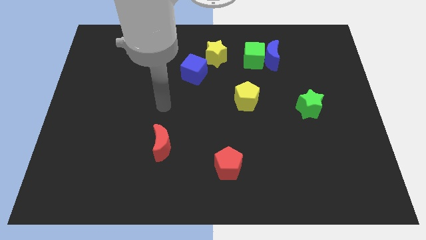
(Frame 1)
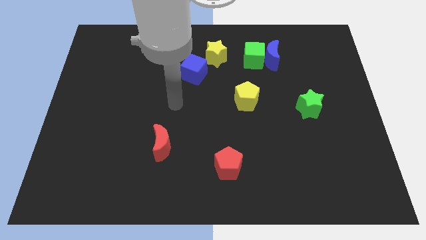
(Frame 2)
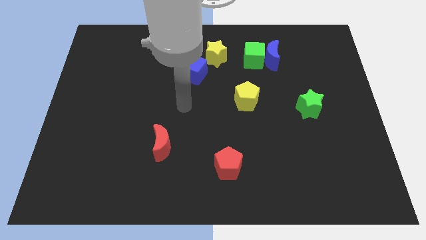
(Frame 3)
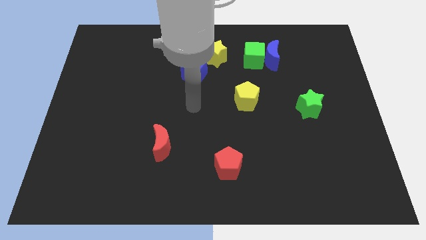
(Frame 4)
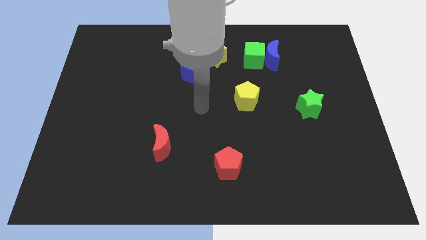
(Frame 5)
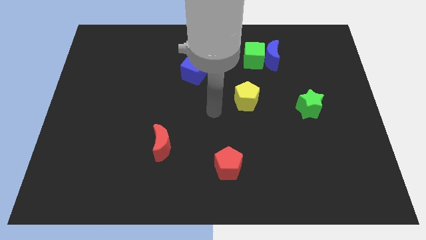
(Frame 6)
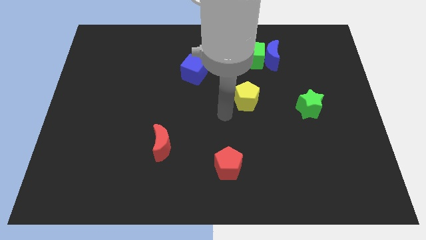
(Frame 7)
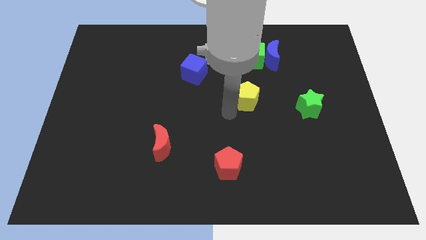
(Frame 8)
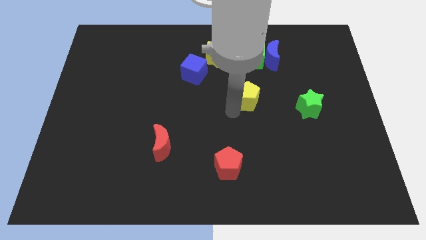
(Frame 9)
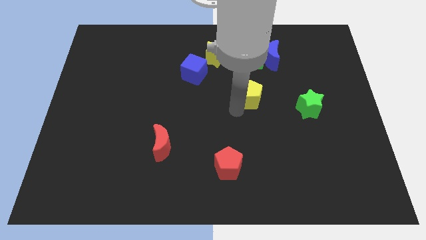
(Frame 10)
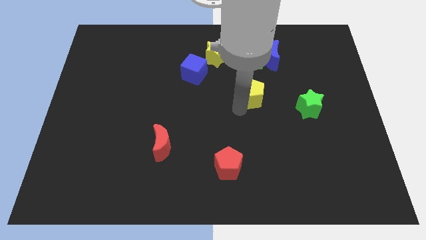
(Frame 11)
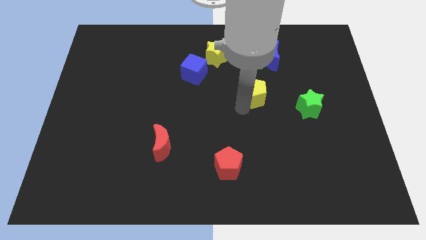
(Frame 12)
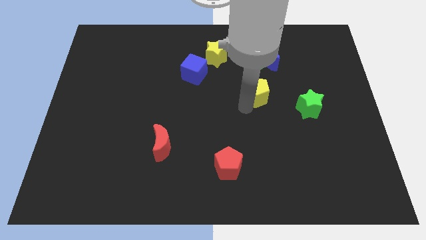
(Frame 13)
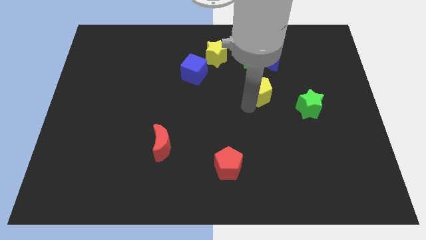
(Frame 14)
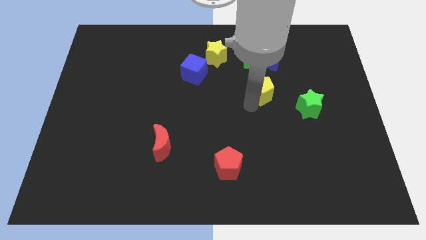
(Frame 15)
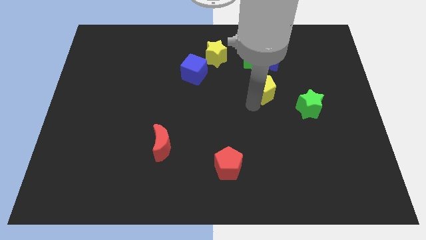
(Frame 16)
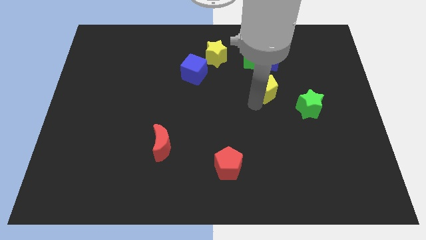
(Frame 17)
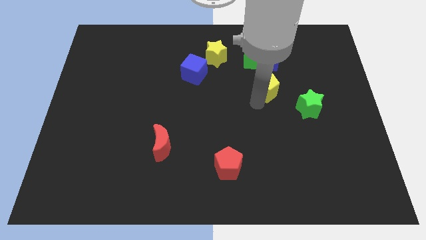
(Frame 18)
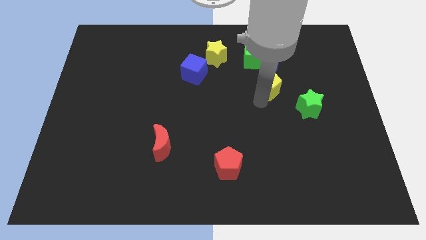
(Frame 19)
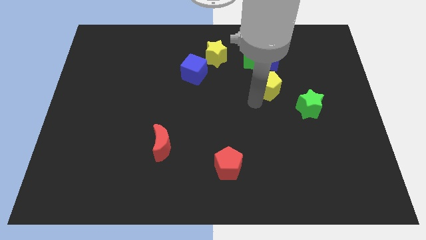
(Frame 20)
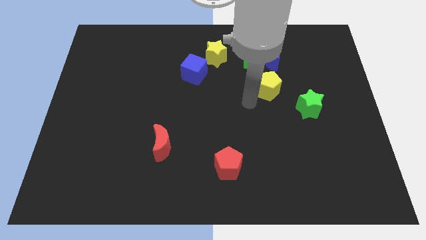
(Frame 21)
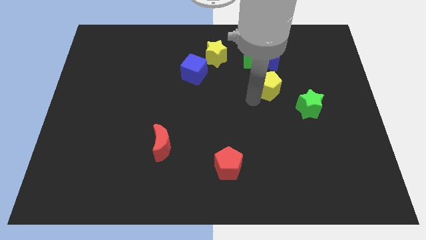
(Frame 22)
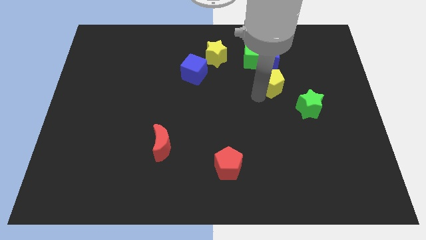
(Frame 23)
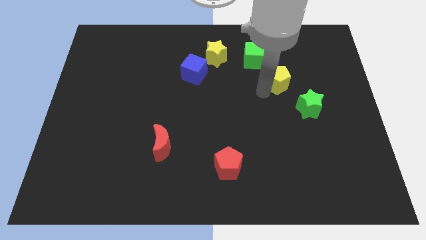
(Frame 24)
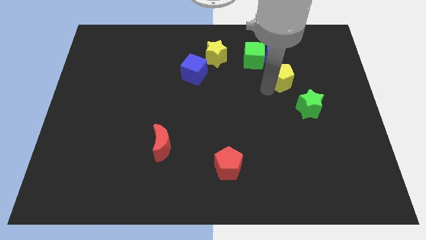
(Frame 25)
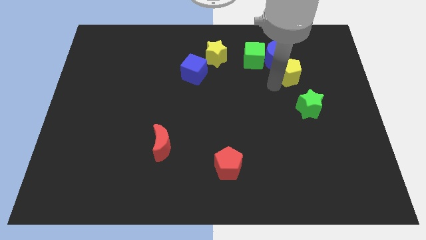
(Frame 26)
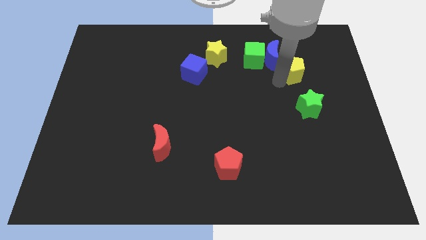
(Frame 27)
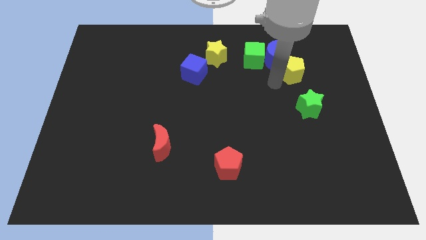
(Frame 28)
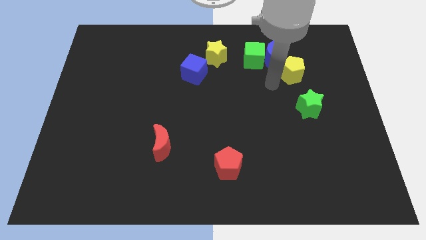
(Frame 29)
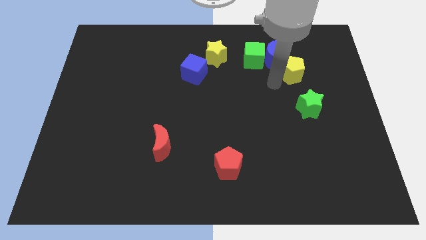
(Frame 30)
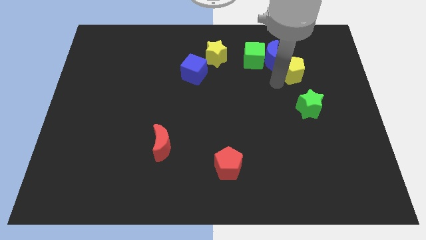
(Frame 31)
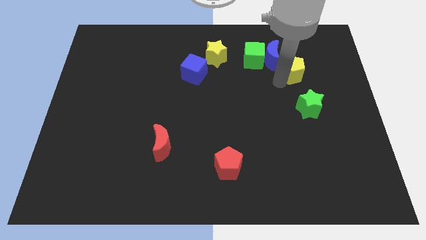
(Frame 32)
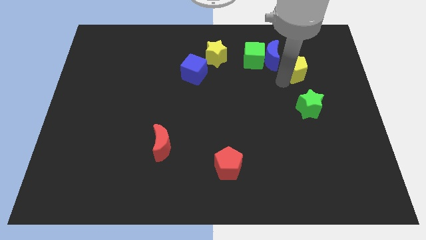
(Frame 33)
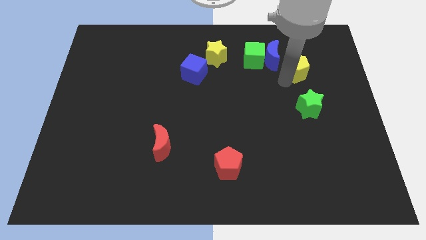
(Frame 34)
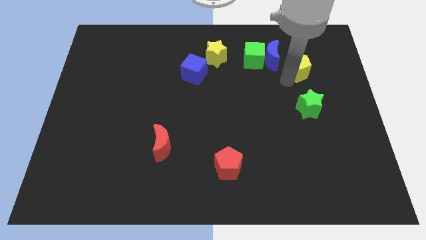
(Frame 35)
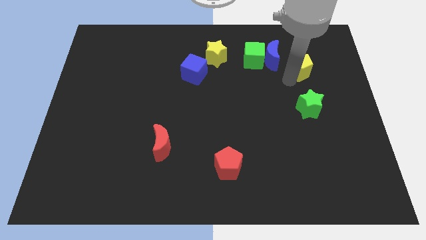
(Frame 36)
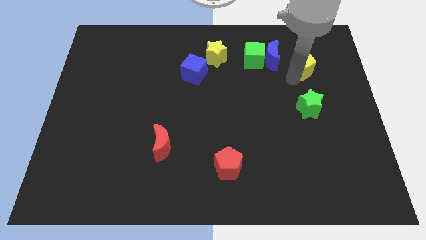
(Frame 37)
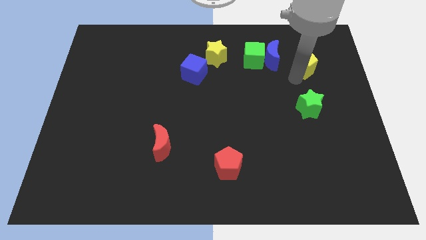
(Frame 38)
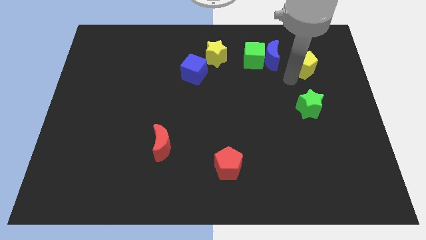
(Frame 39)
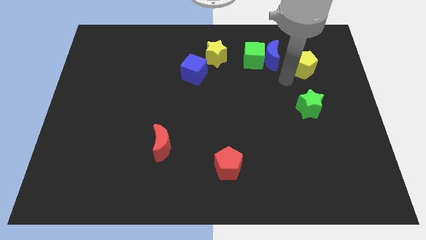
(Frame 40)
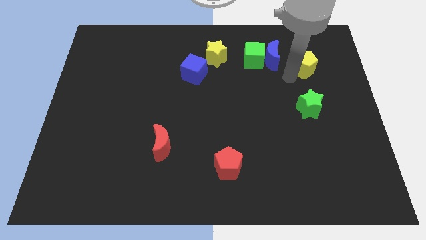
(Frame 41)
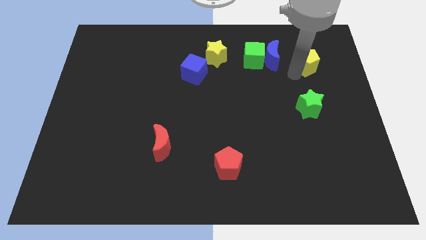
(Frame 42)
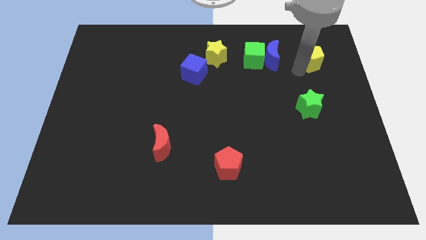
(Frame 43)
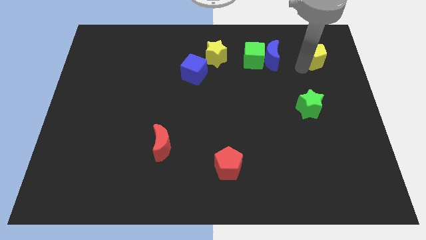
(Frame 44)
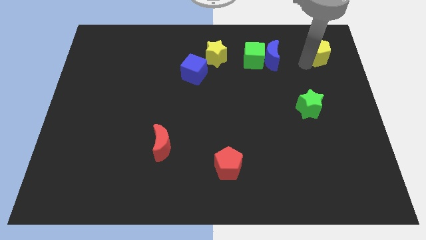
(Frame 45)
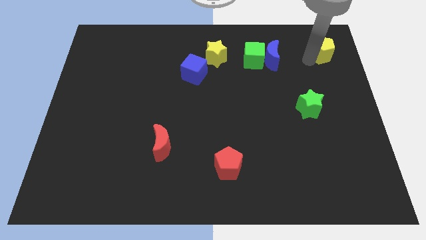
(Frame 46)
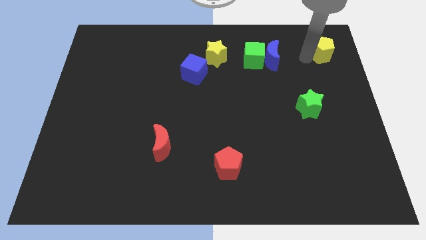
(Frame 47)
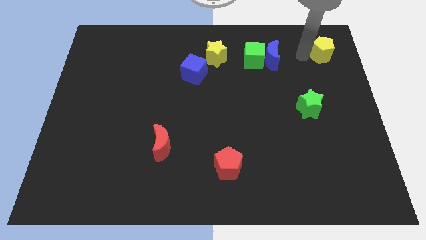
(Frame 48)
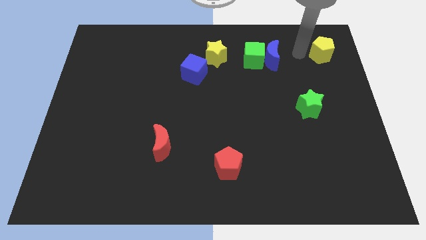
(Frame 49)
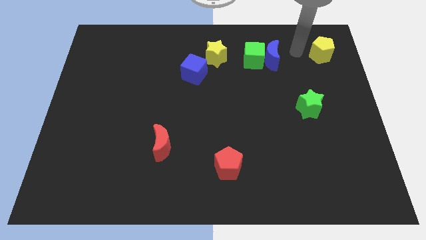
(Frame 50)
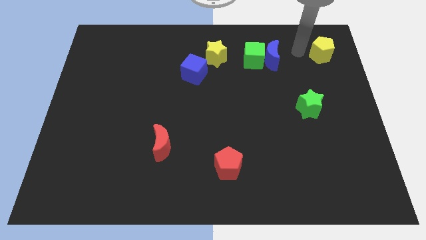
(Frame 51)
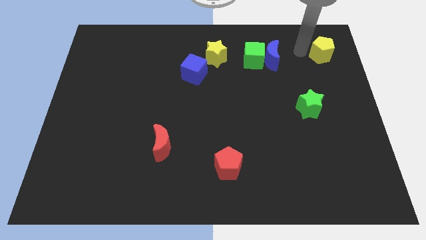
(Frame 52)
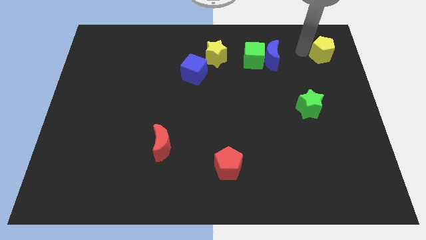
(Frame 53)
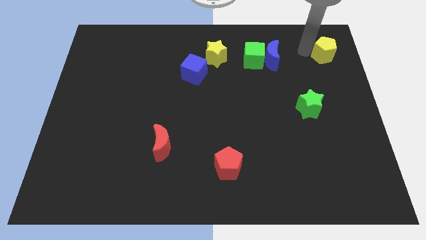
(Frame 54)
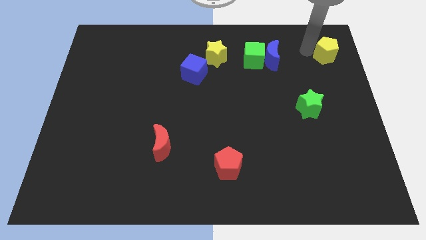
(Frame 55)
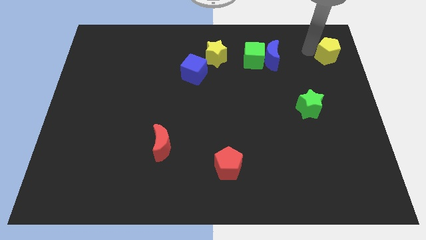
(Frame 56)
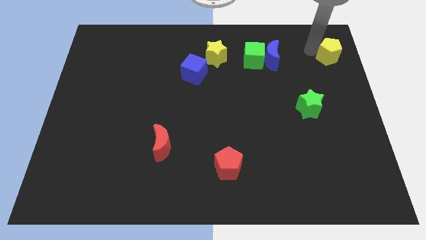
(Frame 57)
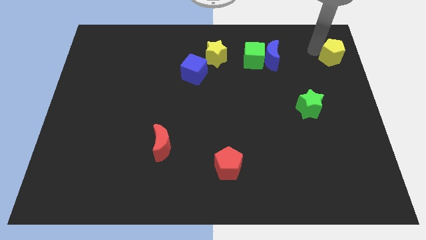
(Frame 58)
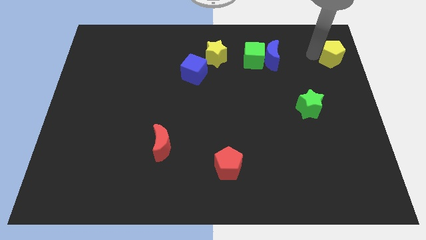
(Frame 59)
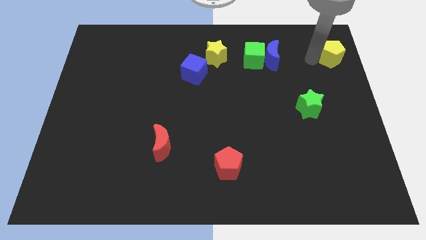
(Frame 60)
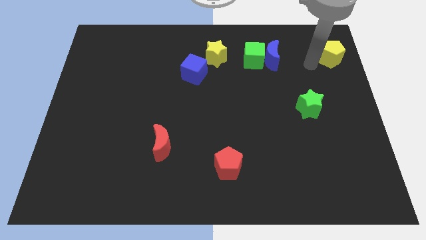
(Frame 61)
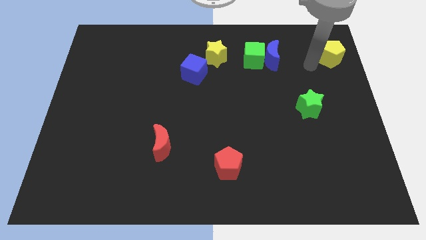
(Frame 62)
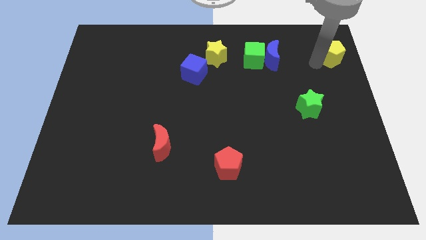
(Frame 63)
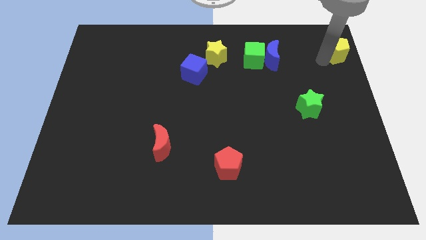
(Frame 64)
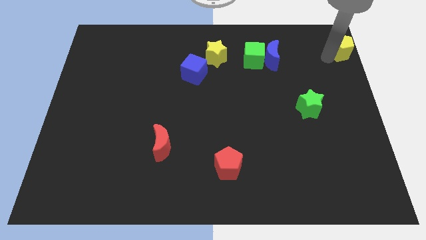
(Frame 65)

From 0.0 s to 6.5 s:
move the yellow pentagon to the upper right corner
